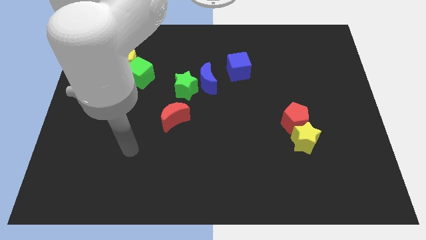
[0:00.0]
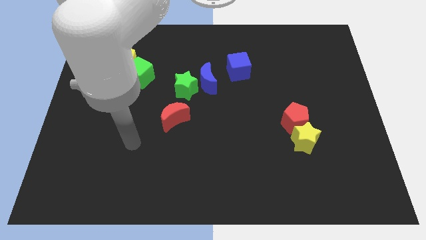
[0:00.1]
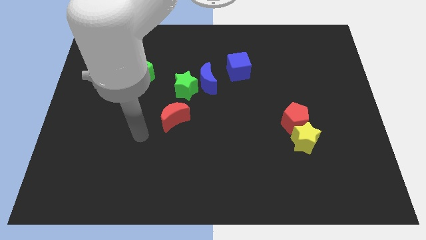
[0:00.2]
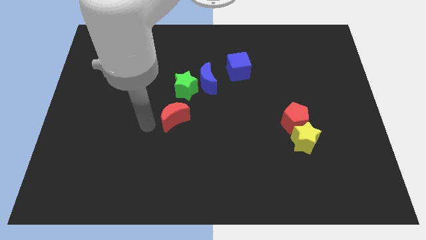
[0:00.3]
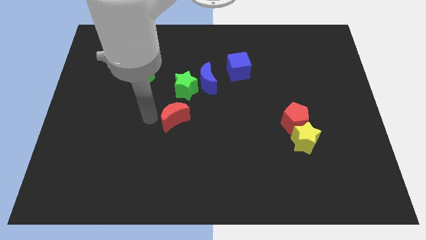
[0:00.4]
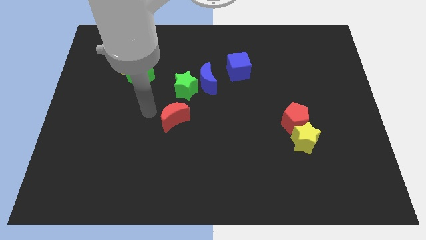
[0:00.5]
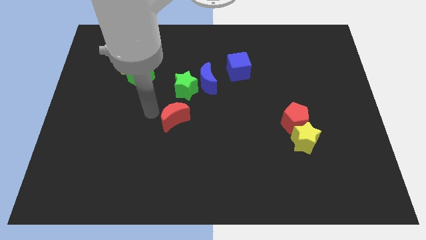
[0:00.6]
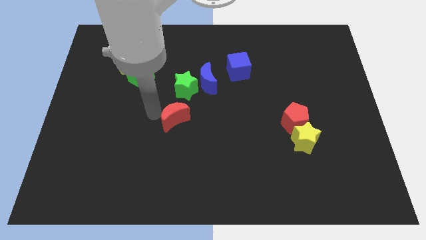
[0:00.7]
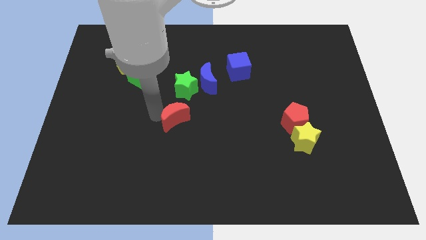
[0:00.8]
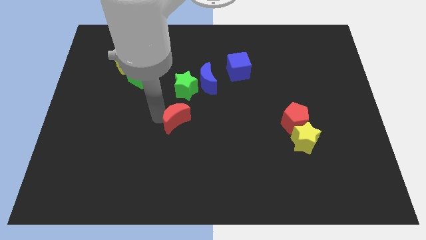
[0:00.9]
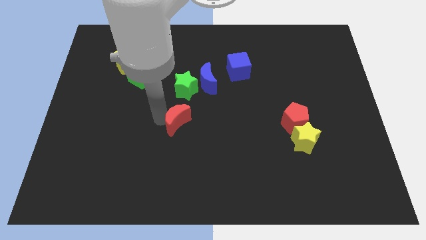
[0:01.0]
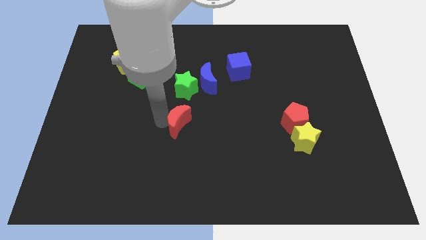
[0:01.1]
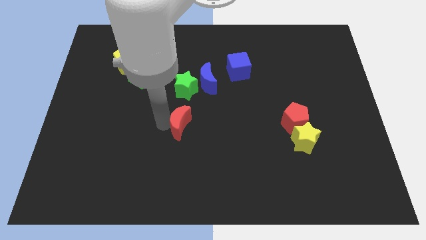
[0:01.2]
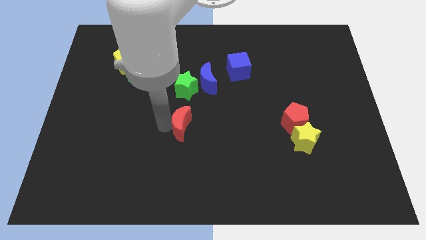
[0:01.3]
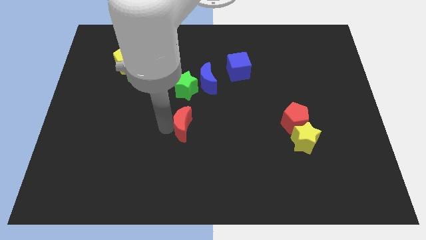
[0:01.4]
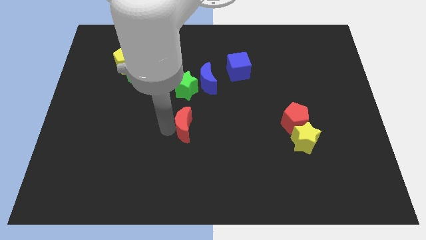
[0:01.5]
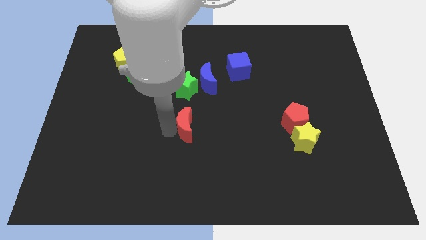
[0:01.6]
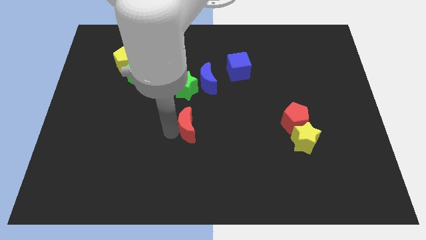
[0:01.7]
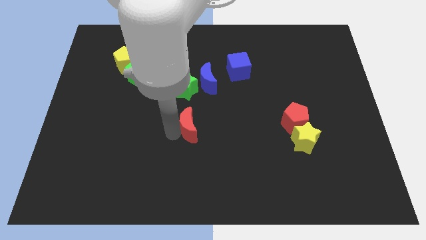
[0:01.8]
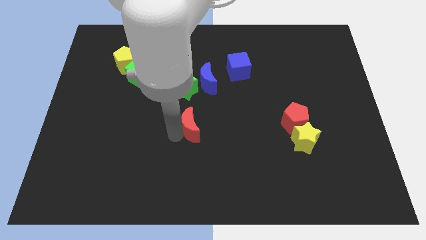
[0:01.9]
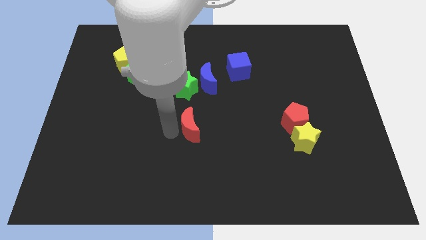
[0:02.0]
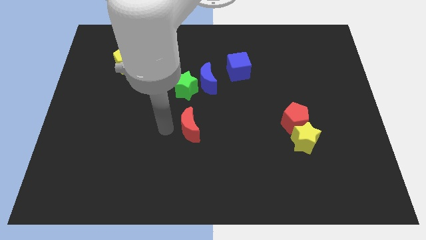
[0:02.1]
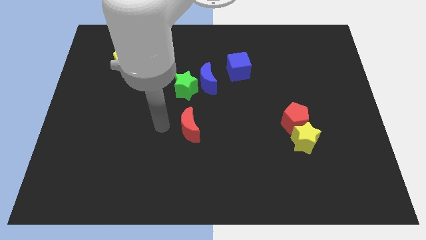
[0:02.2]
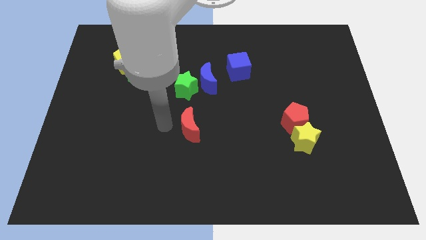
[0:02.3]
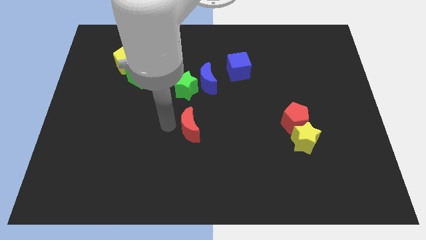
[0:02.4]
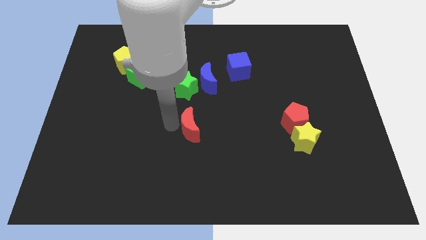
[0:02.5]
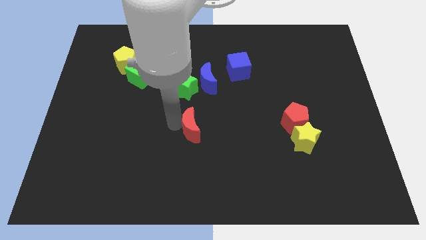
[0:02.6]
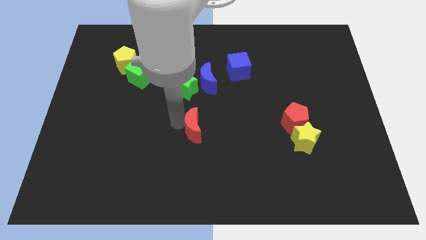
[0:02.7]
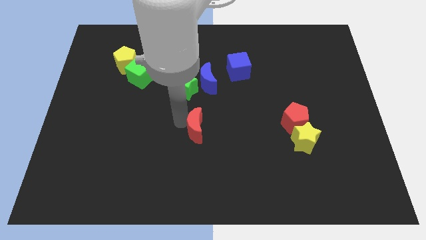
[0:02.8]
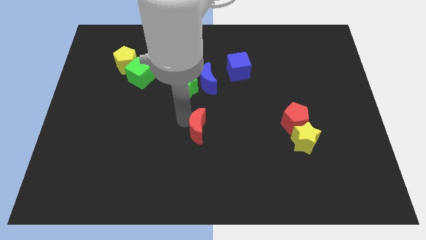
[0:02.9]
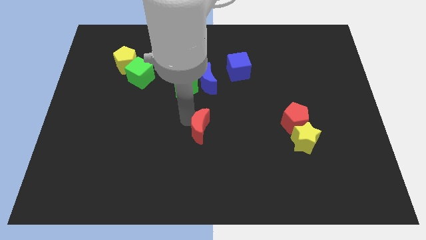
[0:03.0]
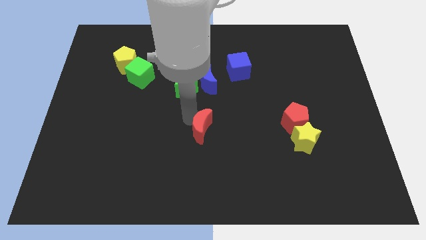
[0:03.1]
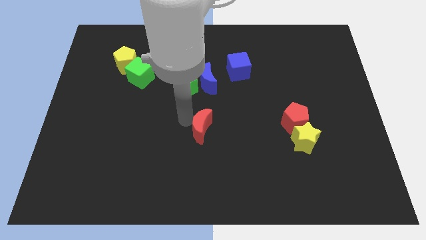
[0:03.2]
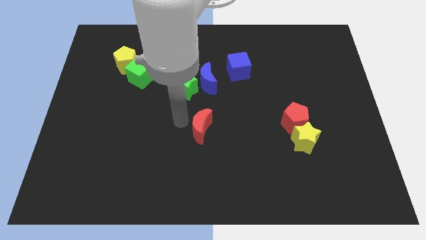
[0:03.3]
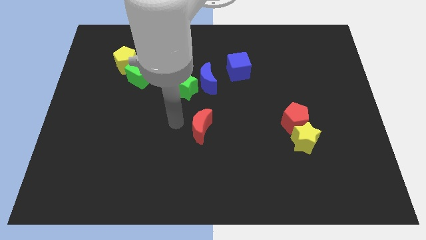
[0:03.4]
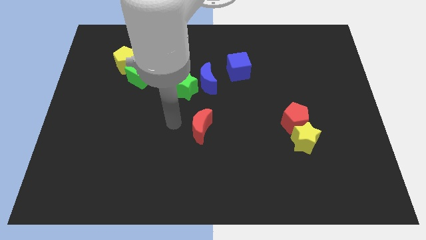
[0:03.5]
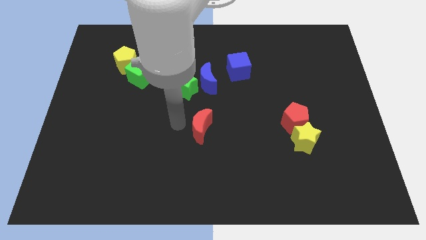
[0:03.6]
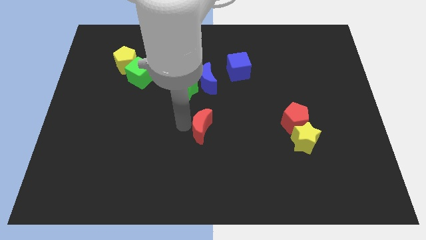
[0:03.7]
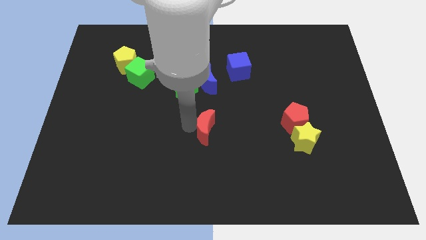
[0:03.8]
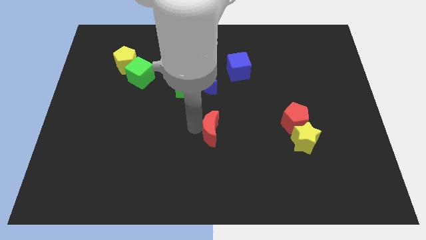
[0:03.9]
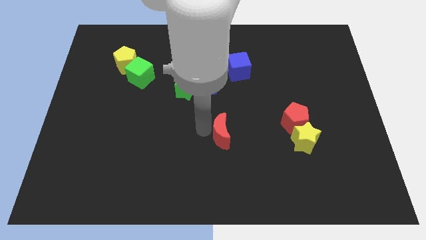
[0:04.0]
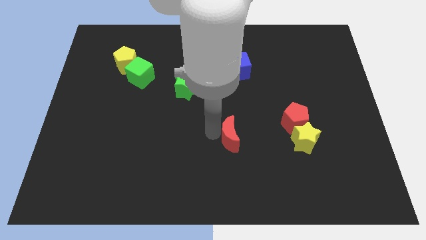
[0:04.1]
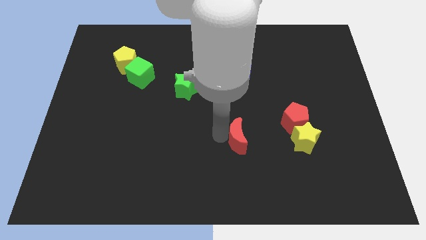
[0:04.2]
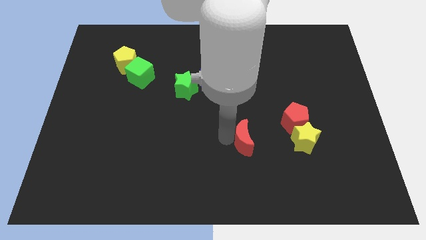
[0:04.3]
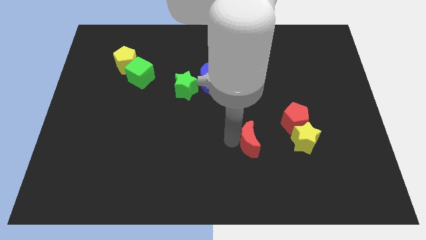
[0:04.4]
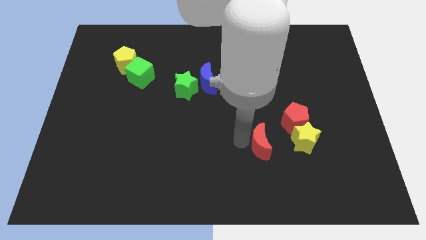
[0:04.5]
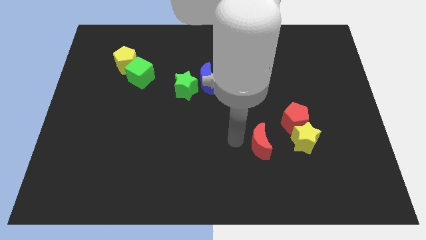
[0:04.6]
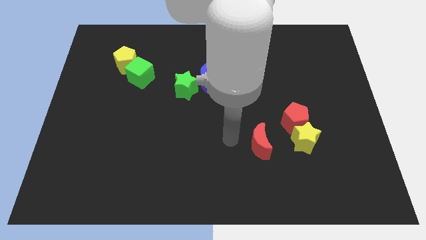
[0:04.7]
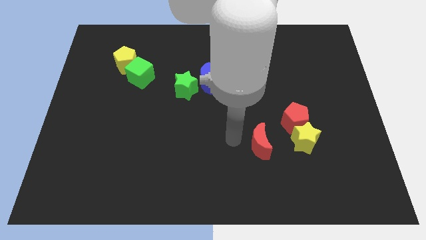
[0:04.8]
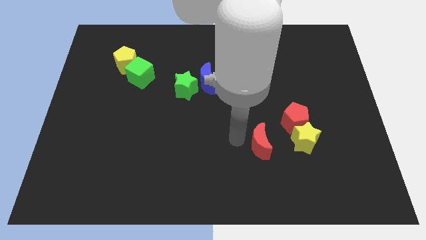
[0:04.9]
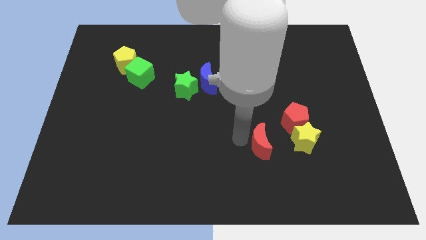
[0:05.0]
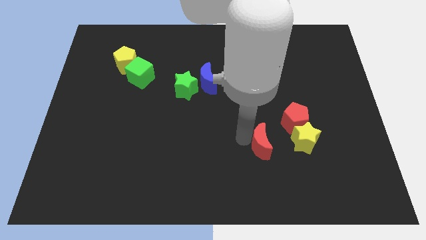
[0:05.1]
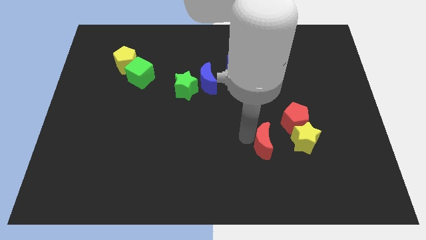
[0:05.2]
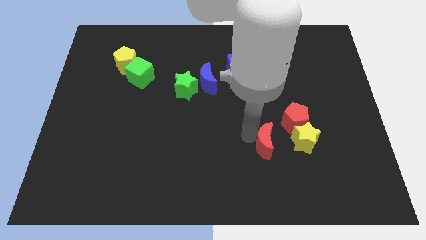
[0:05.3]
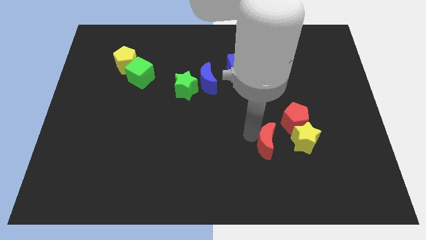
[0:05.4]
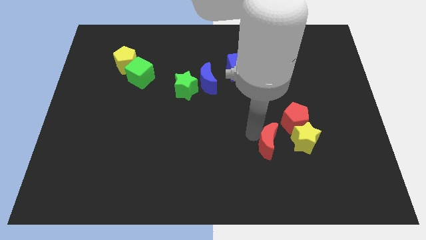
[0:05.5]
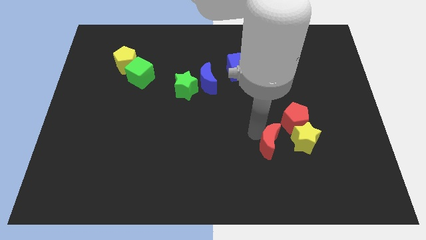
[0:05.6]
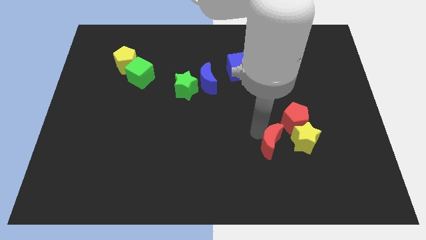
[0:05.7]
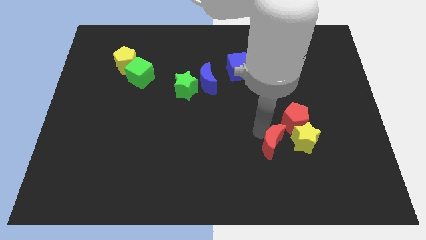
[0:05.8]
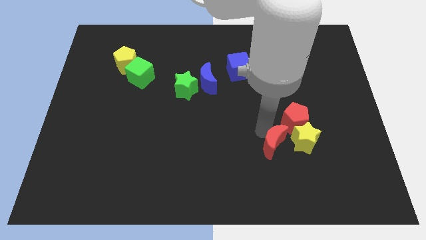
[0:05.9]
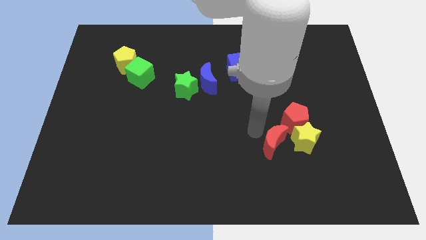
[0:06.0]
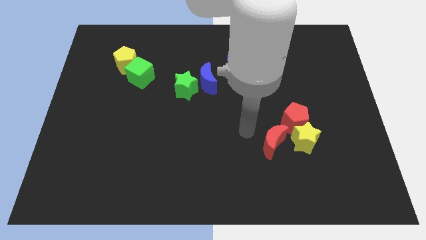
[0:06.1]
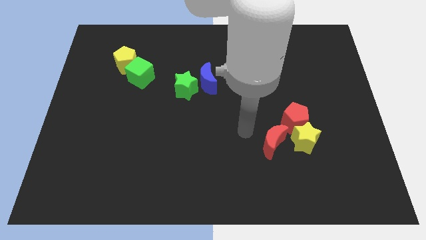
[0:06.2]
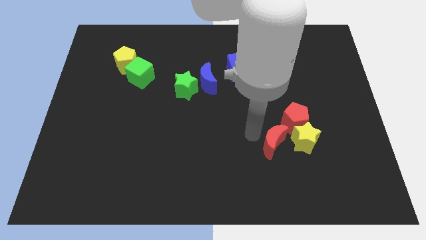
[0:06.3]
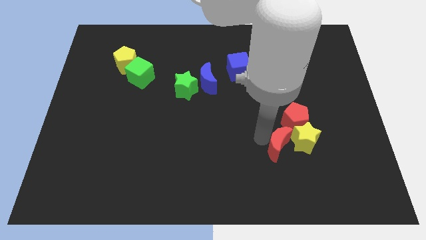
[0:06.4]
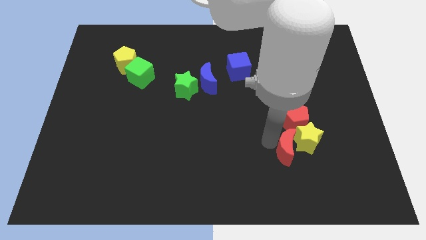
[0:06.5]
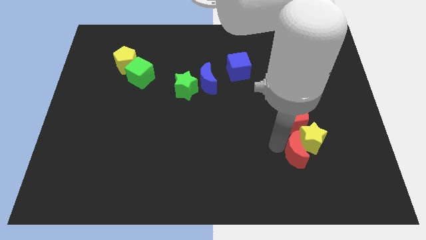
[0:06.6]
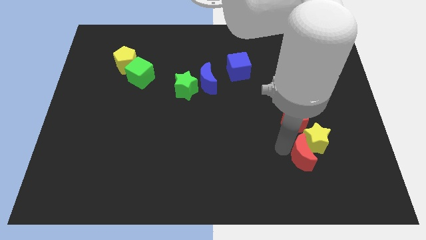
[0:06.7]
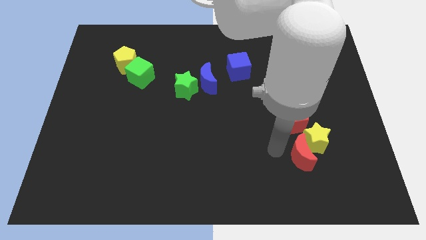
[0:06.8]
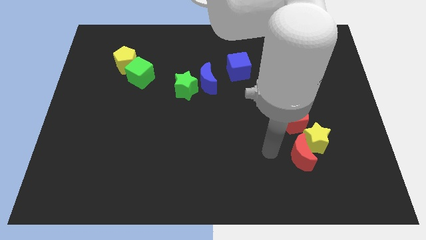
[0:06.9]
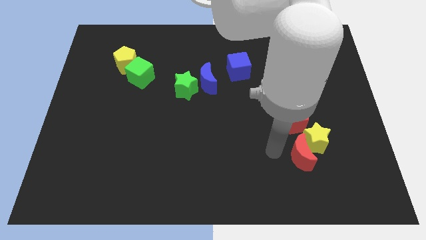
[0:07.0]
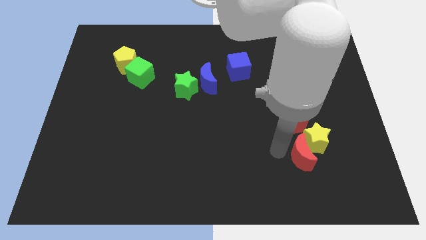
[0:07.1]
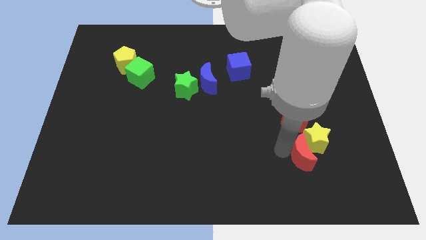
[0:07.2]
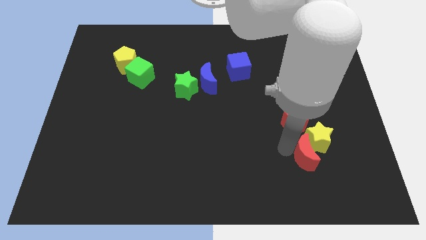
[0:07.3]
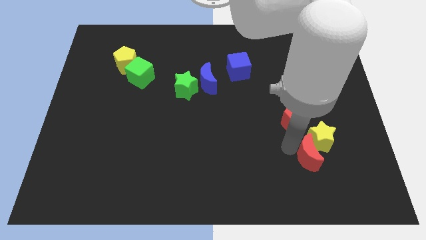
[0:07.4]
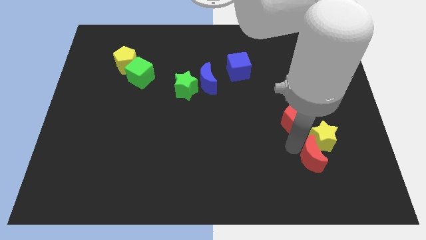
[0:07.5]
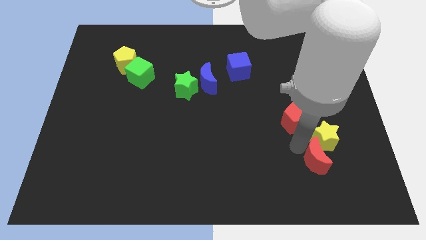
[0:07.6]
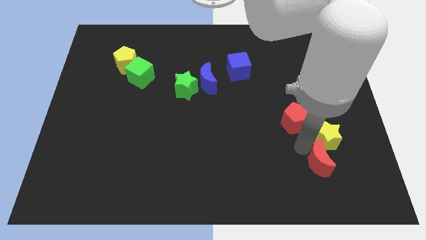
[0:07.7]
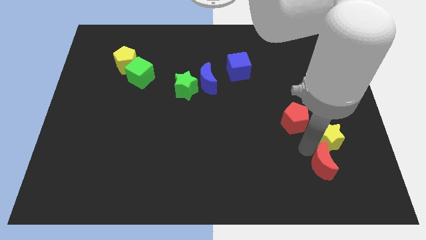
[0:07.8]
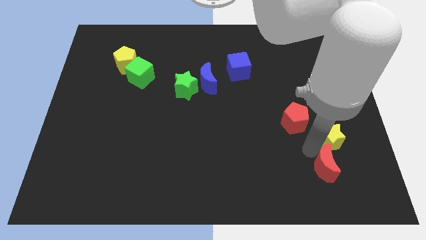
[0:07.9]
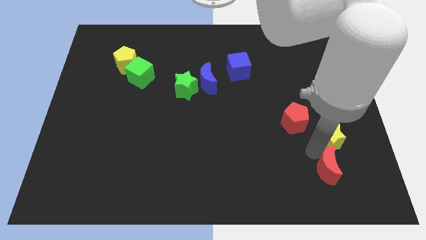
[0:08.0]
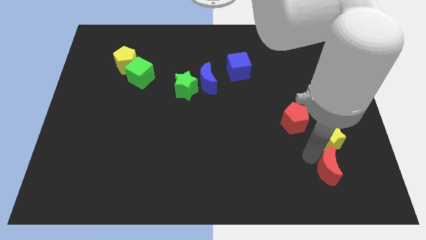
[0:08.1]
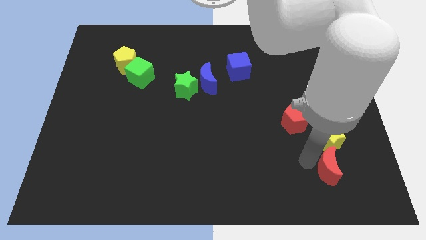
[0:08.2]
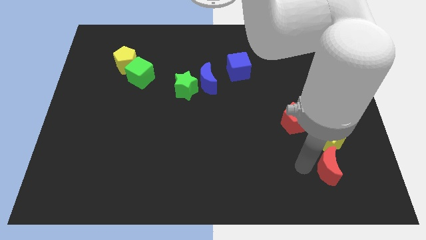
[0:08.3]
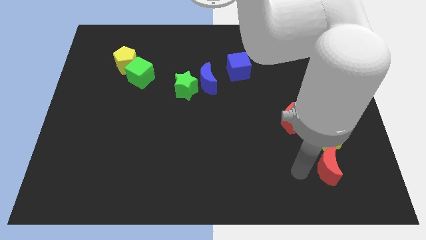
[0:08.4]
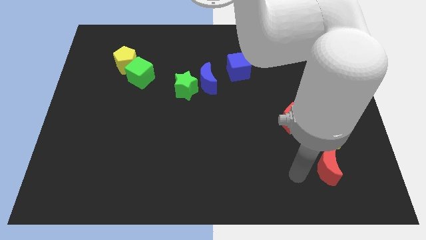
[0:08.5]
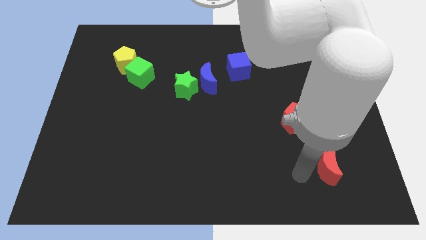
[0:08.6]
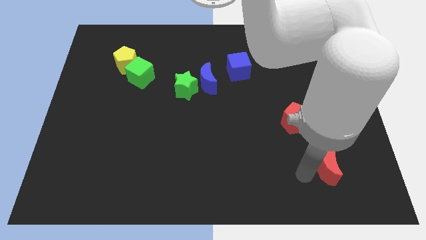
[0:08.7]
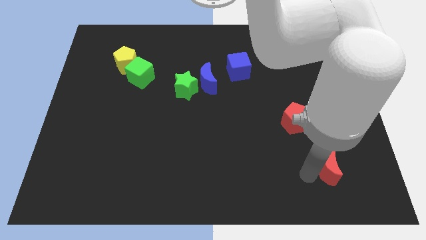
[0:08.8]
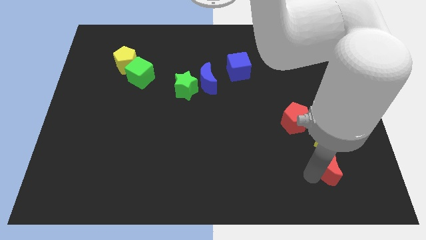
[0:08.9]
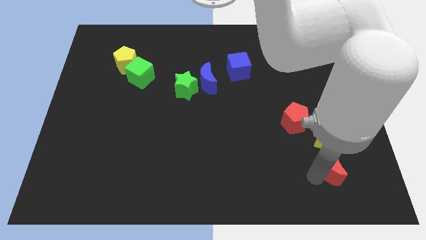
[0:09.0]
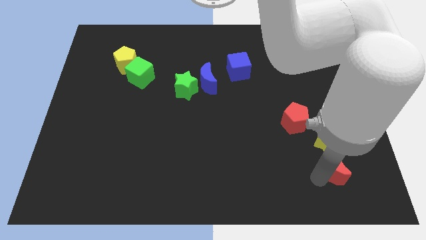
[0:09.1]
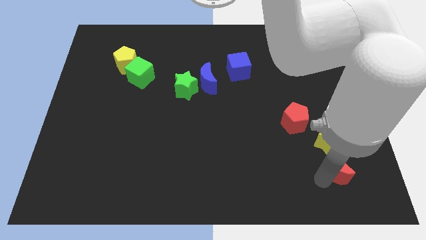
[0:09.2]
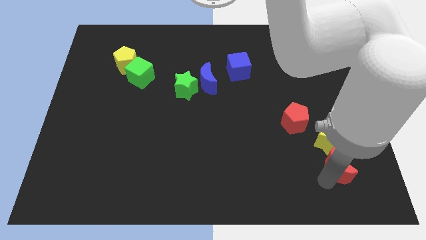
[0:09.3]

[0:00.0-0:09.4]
put the red moon diagonally down and to the right of the yellow star
